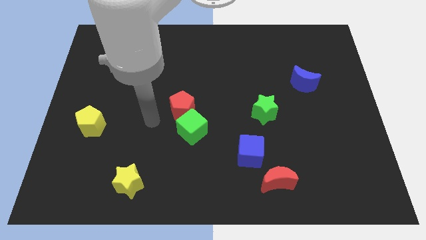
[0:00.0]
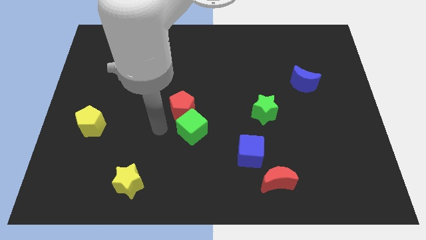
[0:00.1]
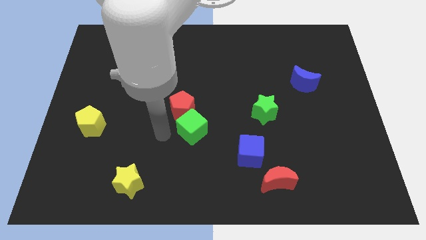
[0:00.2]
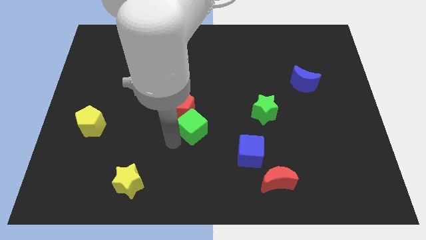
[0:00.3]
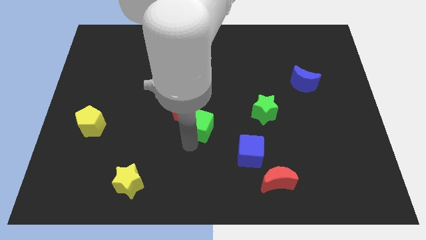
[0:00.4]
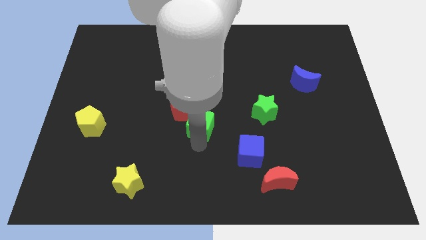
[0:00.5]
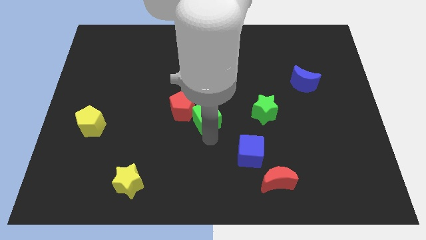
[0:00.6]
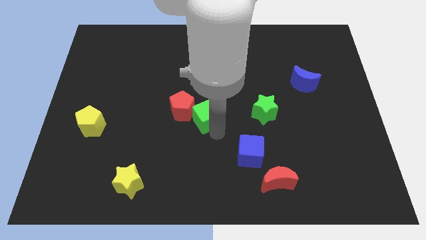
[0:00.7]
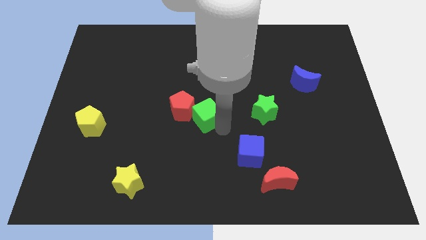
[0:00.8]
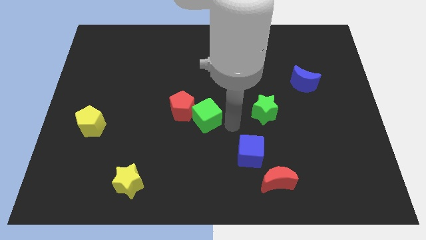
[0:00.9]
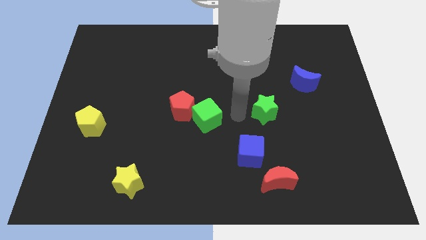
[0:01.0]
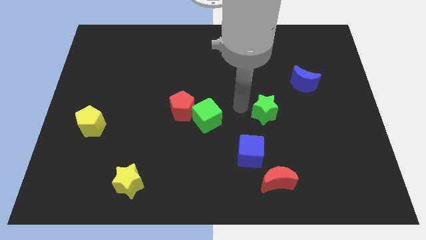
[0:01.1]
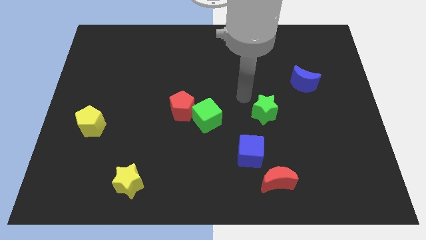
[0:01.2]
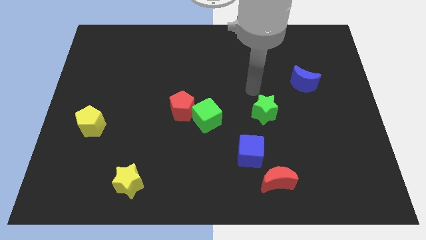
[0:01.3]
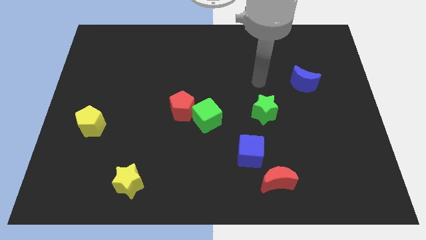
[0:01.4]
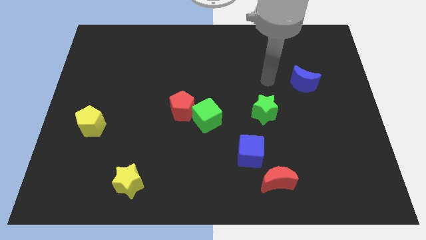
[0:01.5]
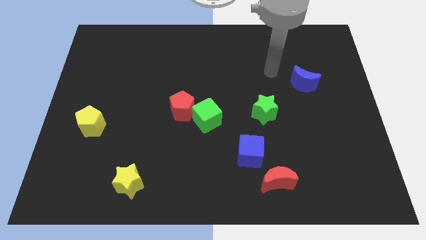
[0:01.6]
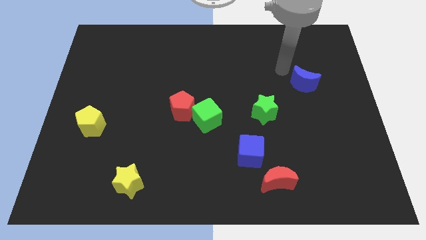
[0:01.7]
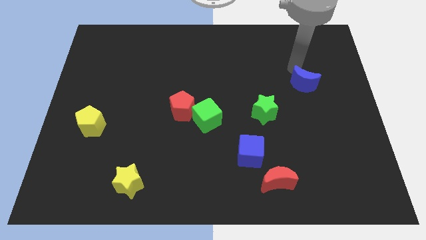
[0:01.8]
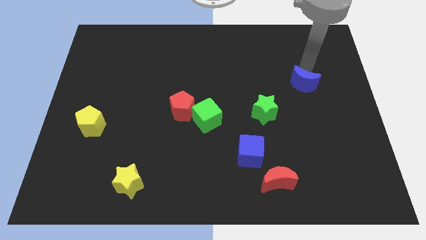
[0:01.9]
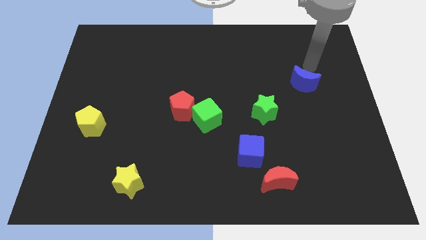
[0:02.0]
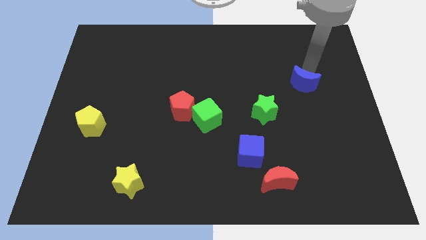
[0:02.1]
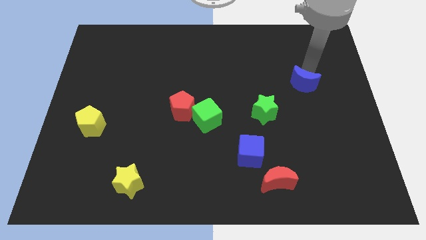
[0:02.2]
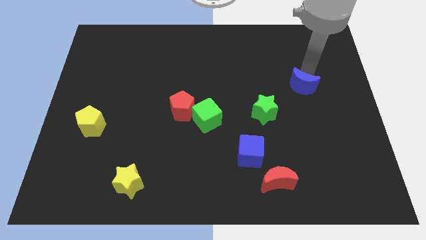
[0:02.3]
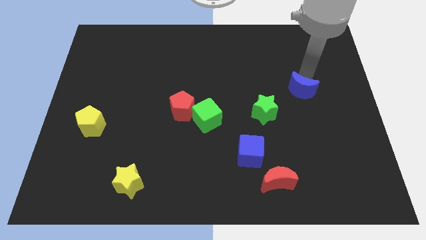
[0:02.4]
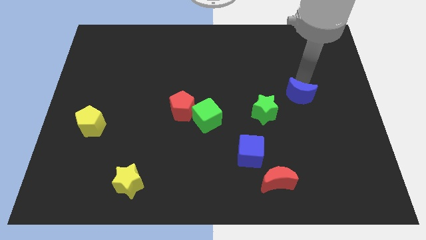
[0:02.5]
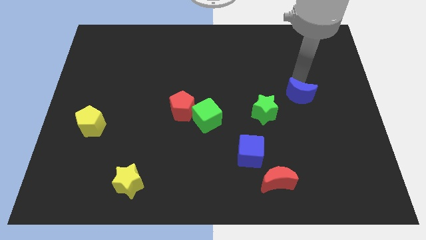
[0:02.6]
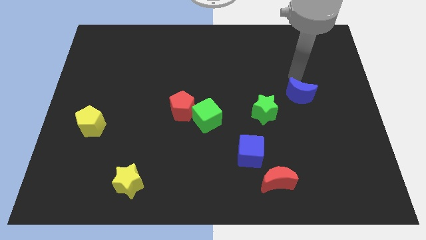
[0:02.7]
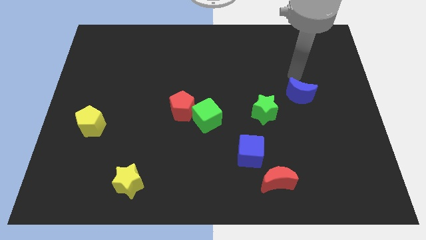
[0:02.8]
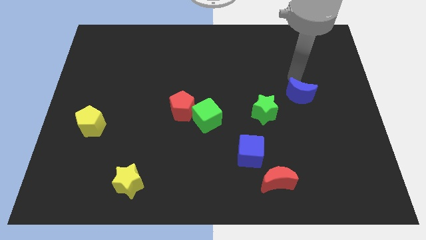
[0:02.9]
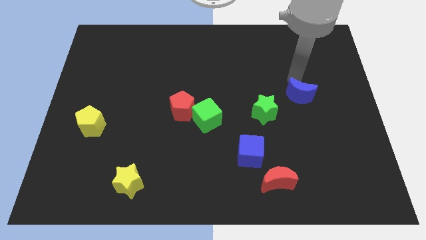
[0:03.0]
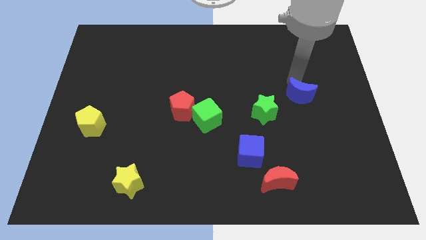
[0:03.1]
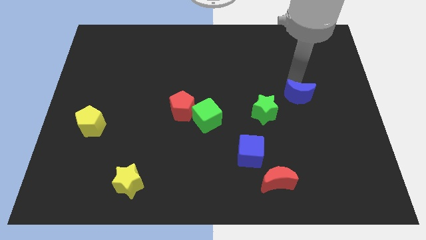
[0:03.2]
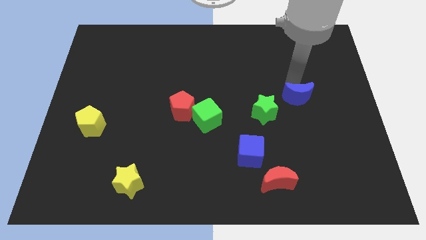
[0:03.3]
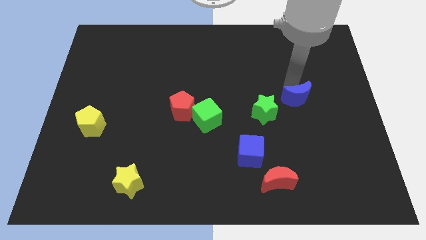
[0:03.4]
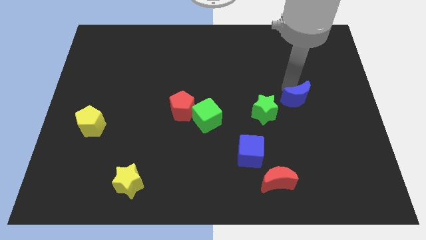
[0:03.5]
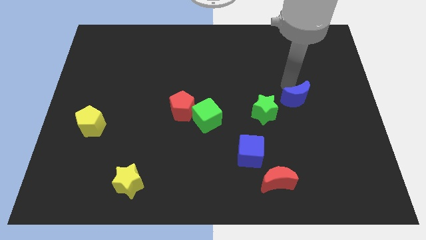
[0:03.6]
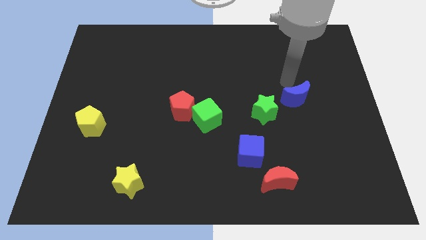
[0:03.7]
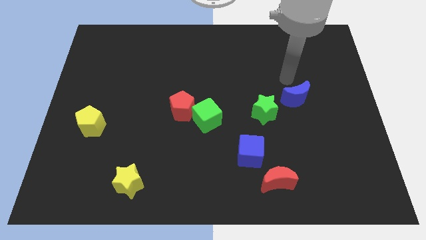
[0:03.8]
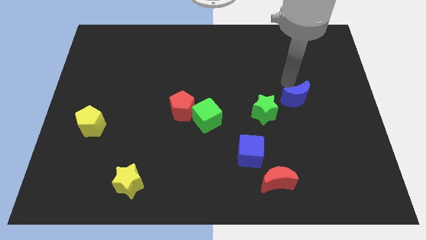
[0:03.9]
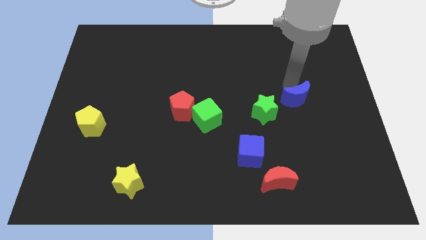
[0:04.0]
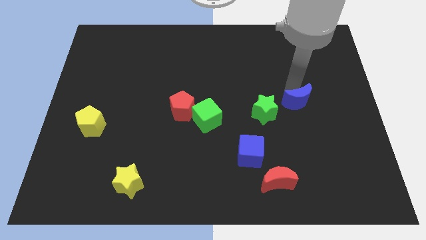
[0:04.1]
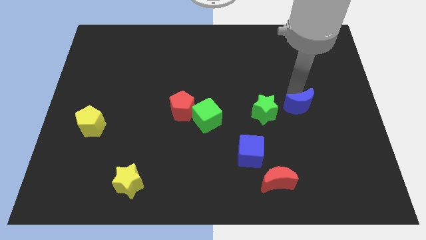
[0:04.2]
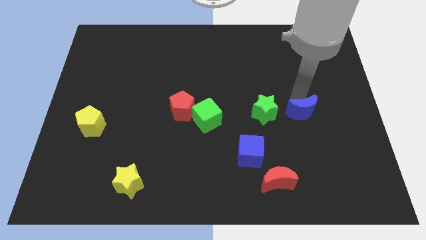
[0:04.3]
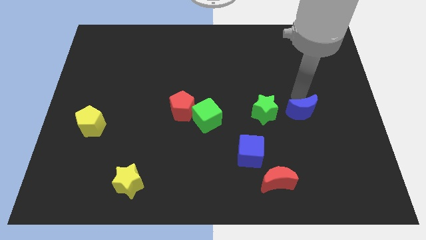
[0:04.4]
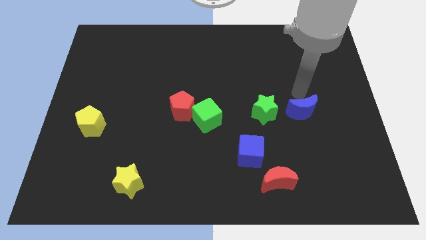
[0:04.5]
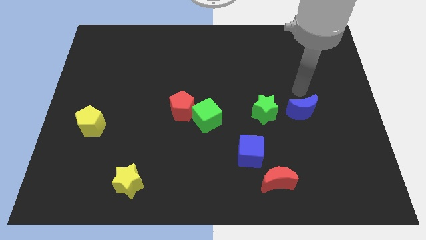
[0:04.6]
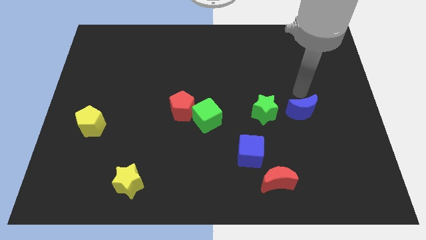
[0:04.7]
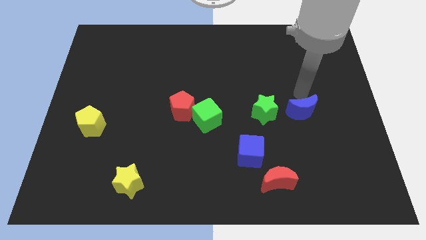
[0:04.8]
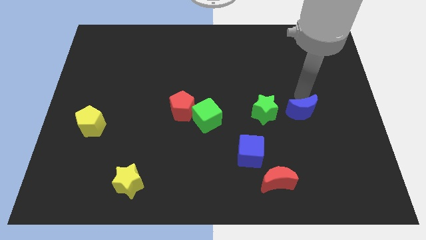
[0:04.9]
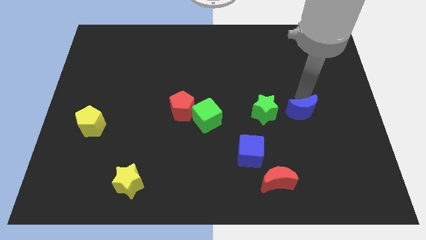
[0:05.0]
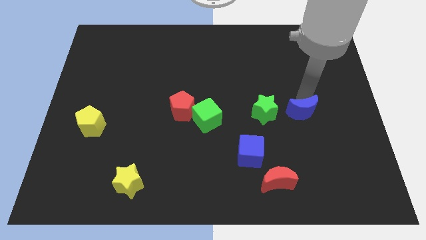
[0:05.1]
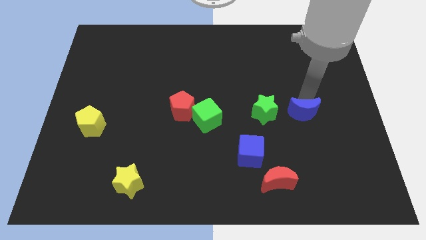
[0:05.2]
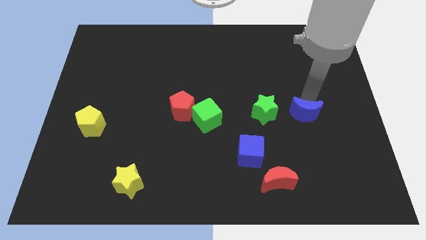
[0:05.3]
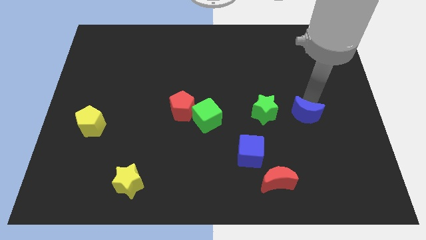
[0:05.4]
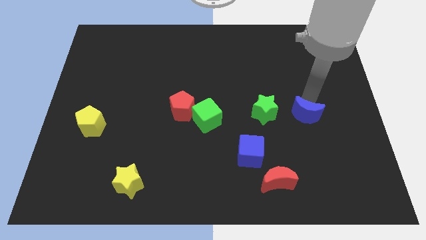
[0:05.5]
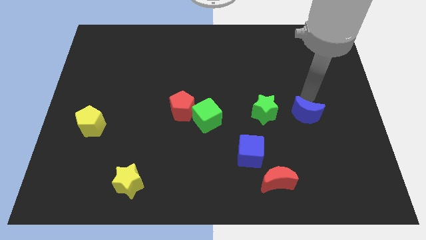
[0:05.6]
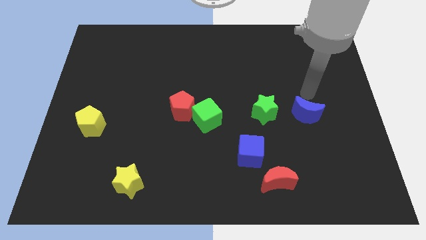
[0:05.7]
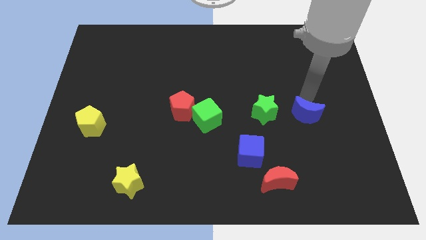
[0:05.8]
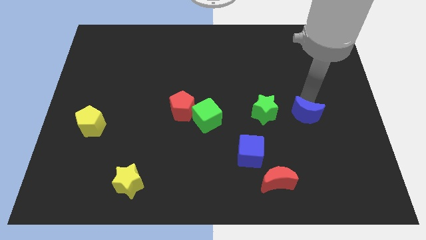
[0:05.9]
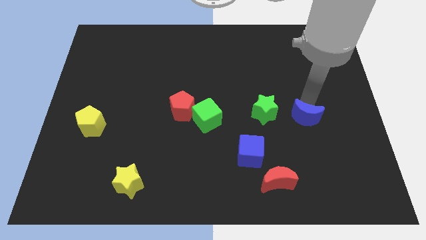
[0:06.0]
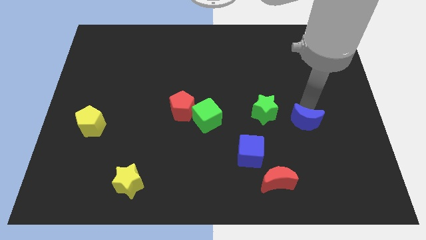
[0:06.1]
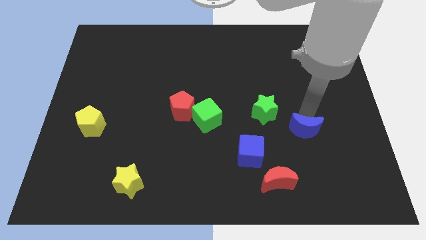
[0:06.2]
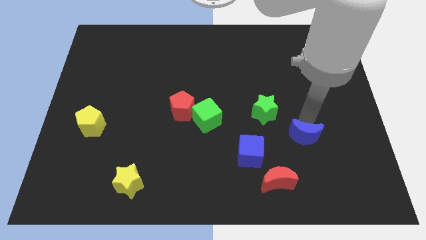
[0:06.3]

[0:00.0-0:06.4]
move the blue moon just right of the blue cube

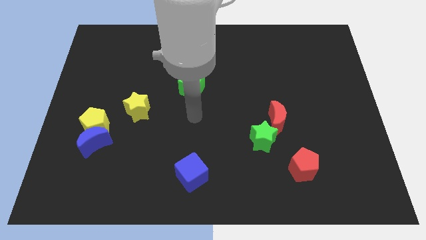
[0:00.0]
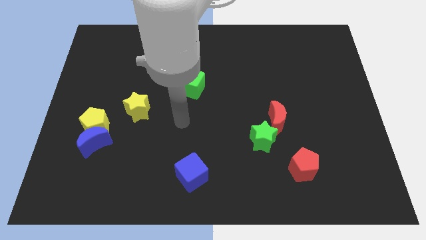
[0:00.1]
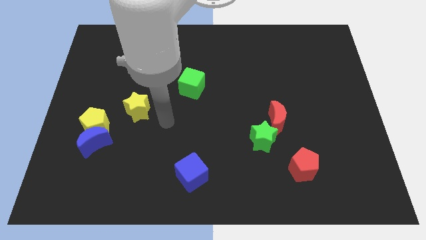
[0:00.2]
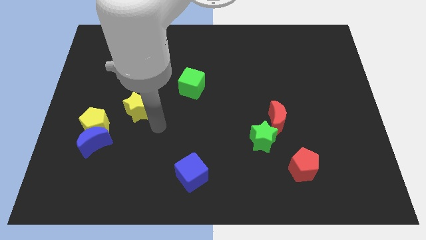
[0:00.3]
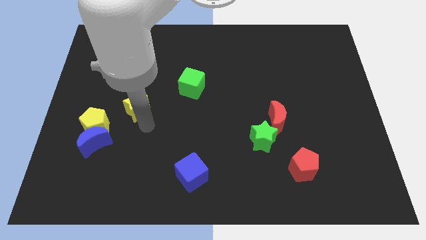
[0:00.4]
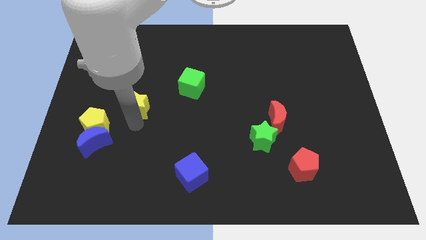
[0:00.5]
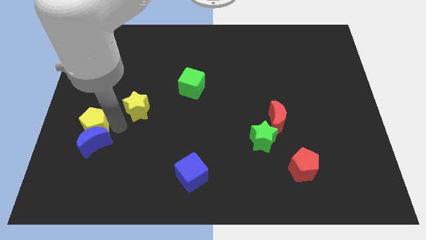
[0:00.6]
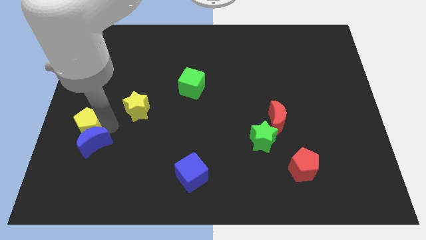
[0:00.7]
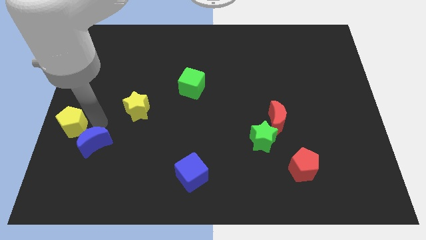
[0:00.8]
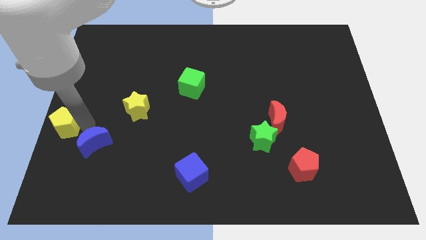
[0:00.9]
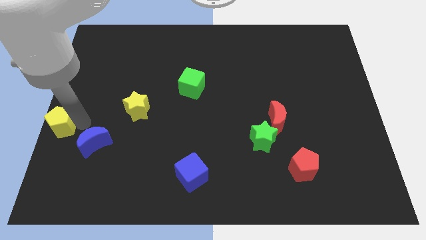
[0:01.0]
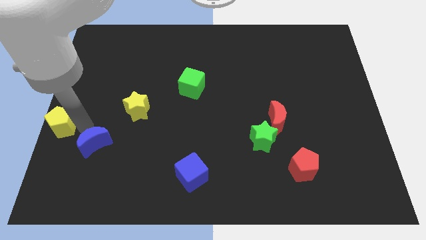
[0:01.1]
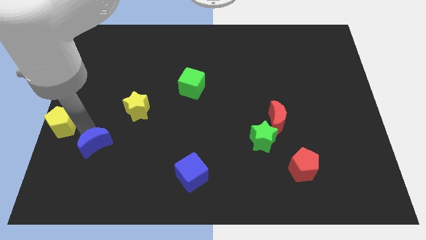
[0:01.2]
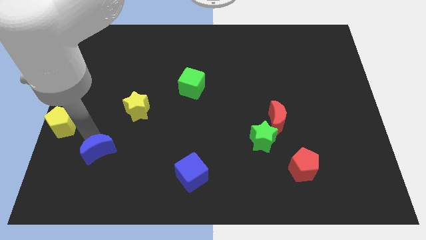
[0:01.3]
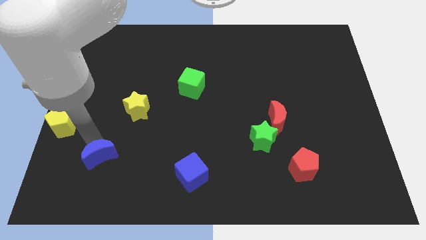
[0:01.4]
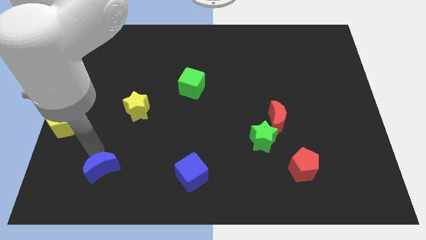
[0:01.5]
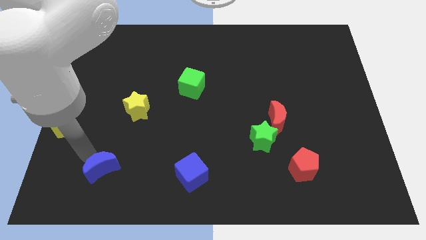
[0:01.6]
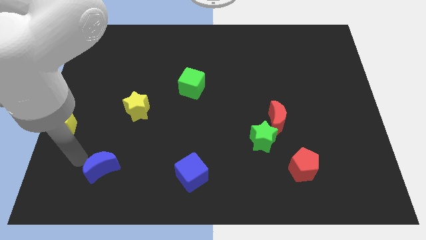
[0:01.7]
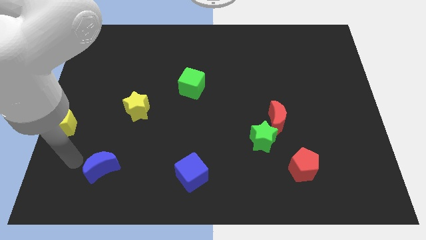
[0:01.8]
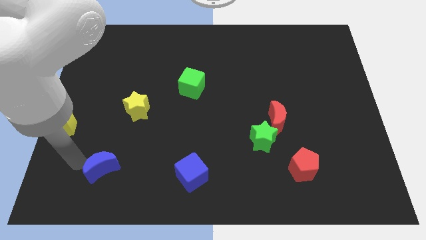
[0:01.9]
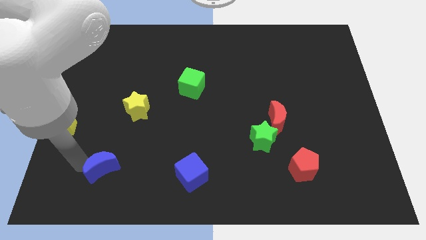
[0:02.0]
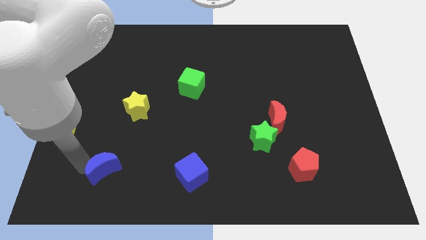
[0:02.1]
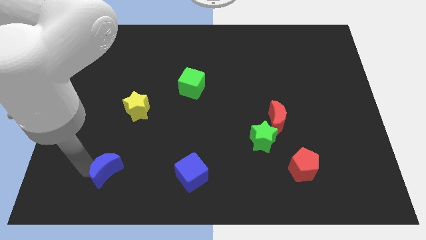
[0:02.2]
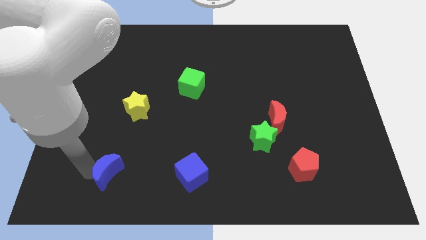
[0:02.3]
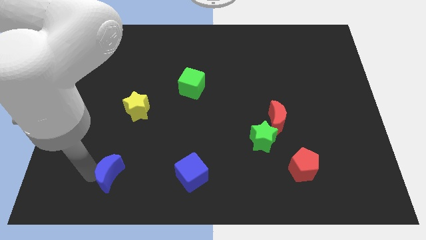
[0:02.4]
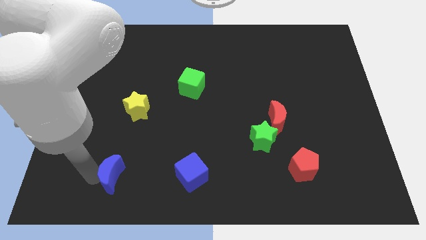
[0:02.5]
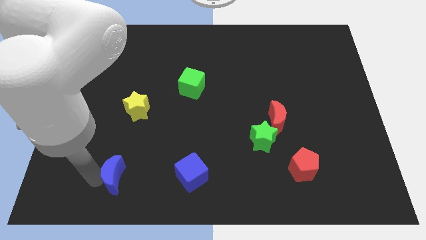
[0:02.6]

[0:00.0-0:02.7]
slide the blue moon to the left side of the blue cube
